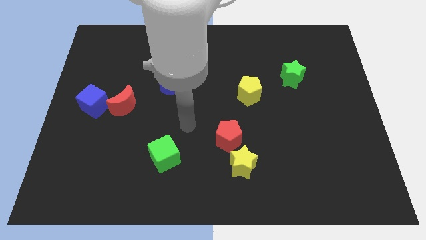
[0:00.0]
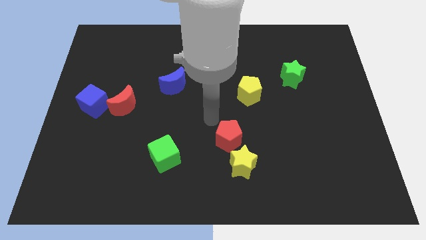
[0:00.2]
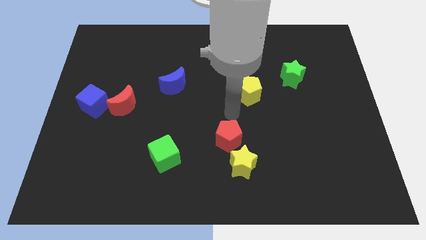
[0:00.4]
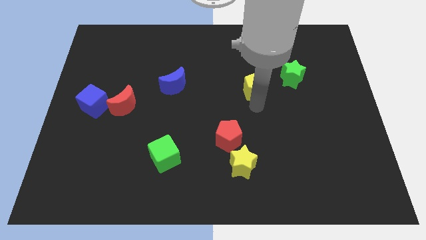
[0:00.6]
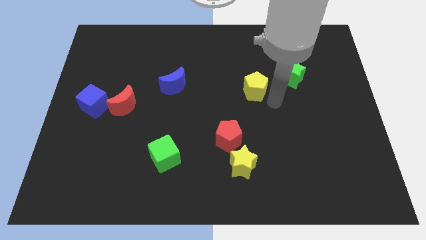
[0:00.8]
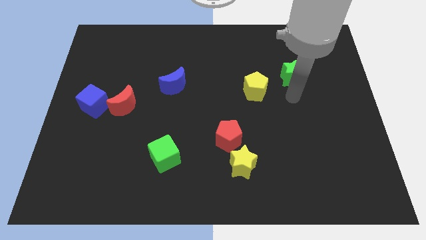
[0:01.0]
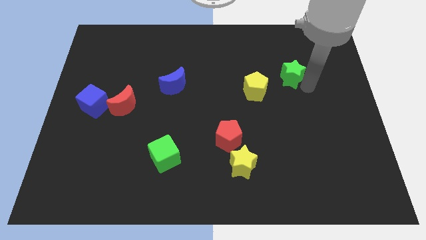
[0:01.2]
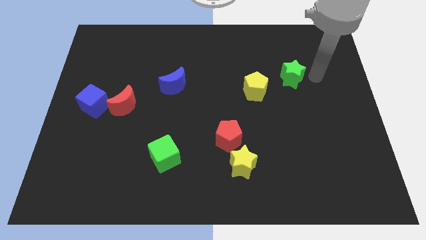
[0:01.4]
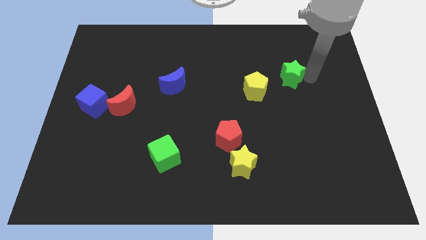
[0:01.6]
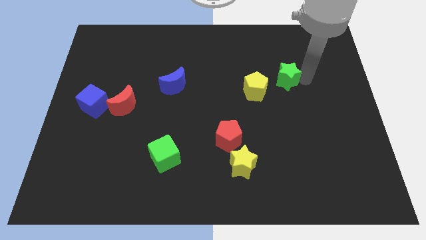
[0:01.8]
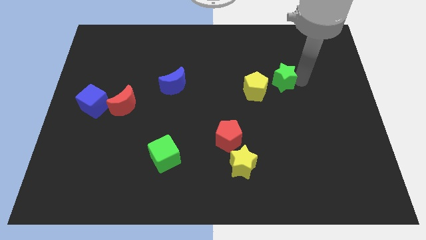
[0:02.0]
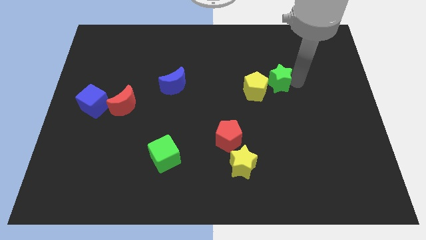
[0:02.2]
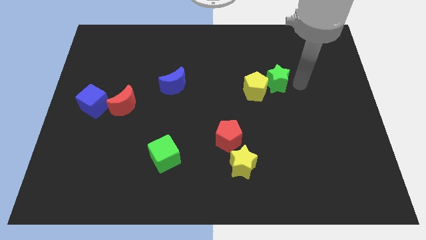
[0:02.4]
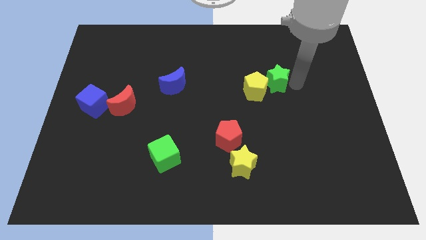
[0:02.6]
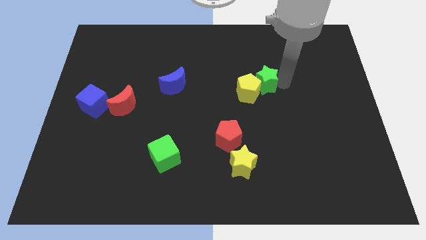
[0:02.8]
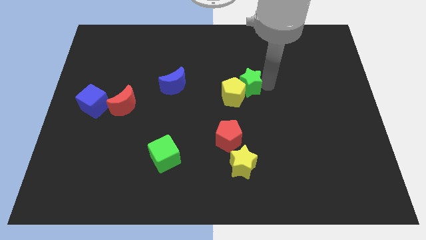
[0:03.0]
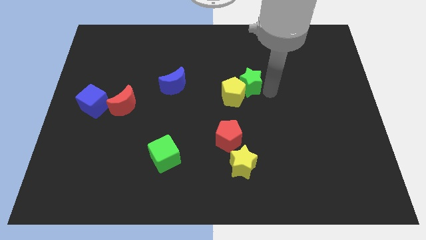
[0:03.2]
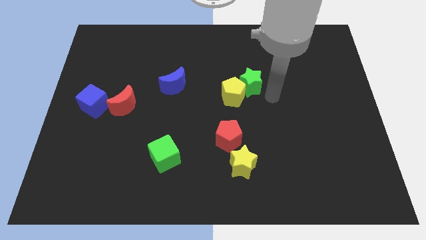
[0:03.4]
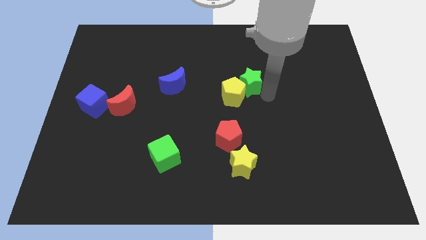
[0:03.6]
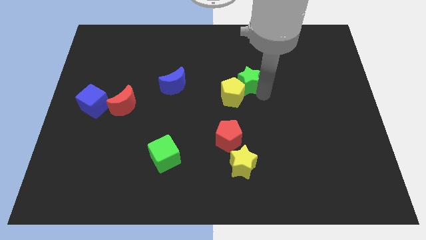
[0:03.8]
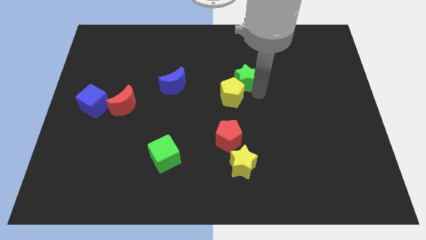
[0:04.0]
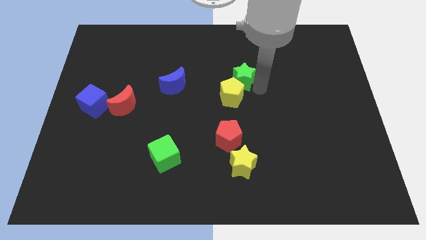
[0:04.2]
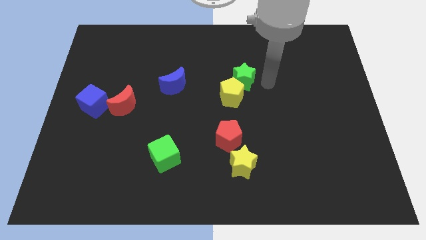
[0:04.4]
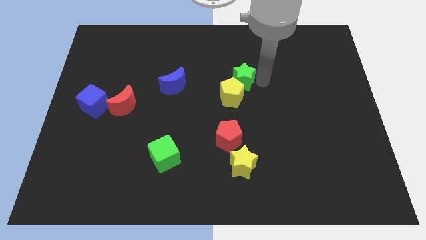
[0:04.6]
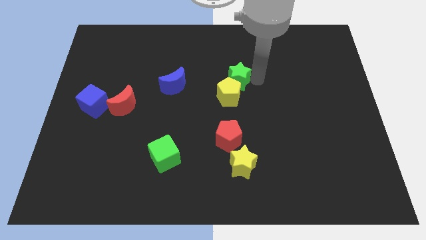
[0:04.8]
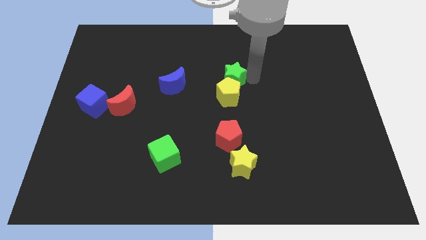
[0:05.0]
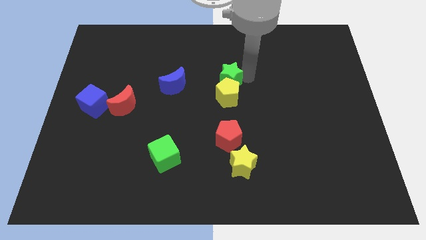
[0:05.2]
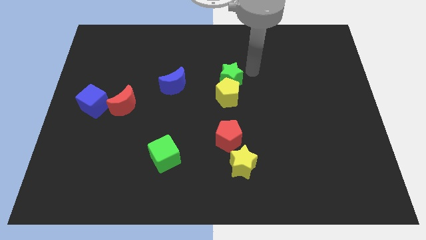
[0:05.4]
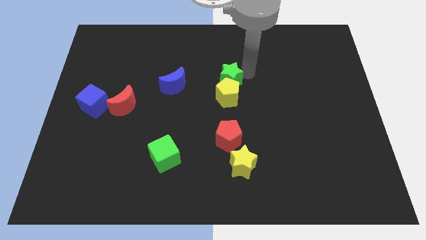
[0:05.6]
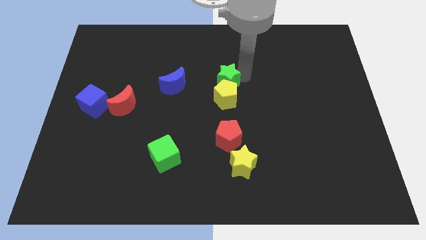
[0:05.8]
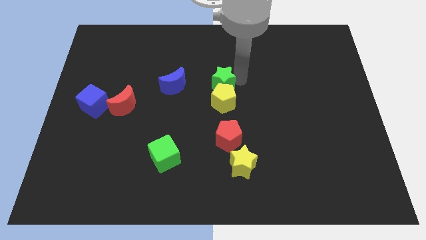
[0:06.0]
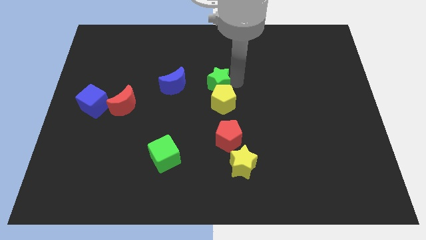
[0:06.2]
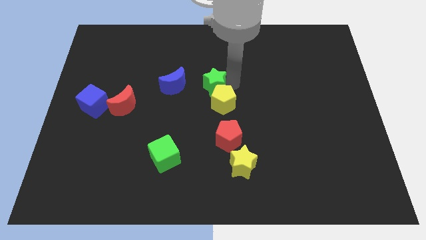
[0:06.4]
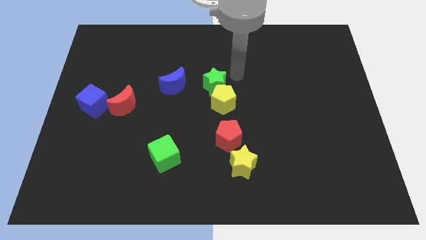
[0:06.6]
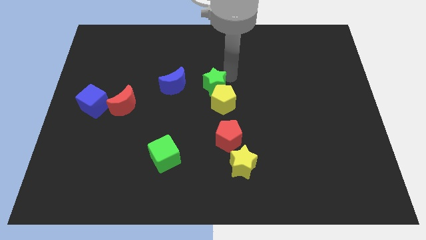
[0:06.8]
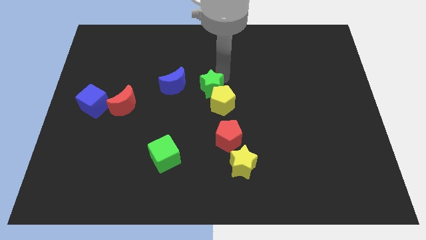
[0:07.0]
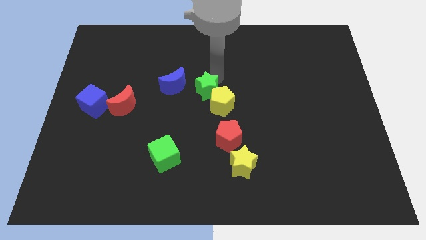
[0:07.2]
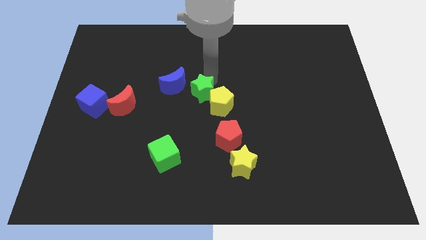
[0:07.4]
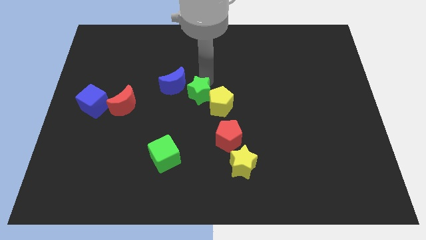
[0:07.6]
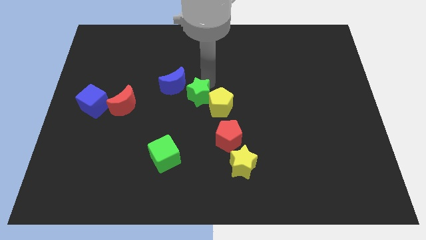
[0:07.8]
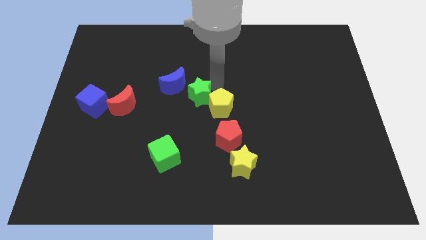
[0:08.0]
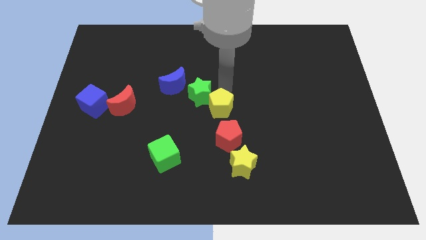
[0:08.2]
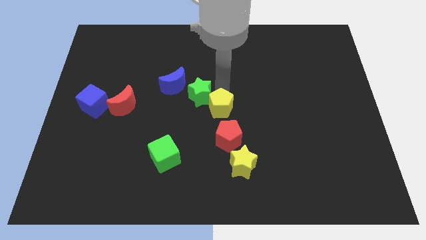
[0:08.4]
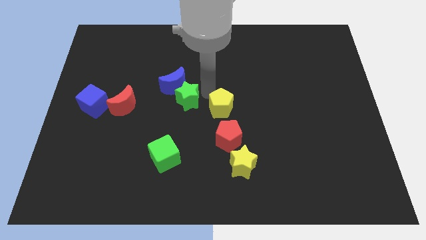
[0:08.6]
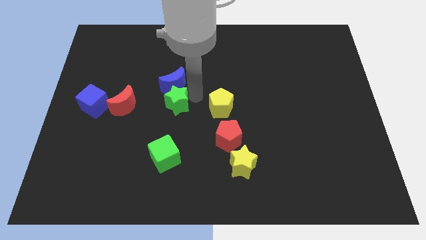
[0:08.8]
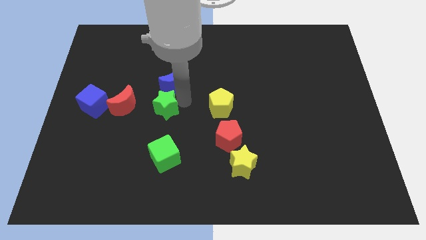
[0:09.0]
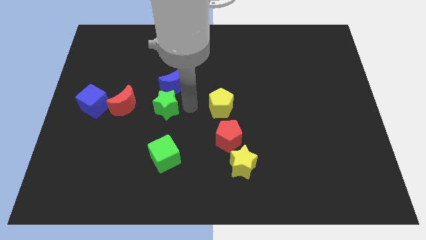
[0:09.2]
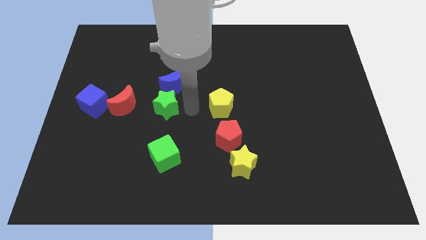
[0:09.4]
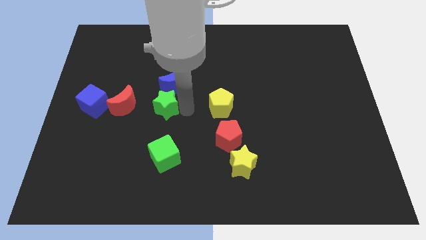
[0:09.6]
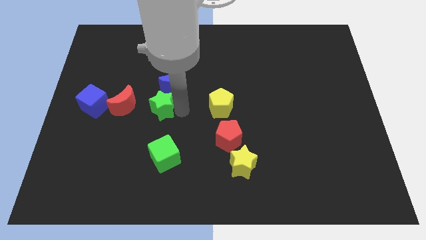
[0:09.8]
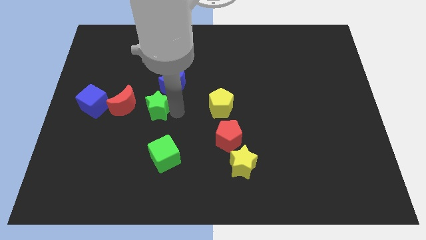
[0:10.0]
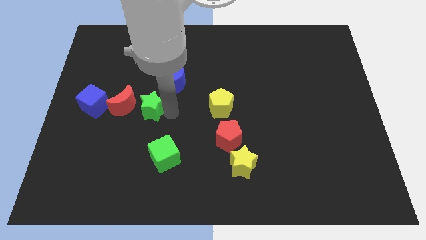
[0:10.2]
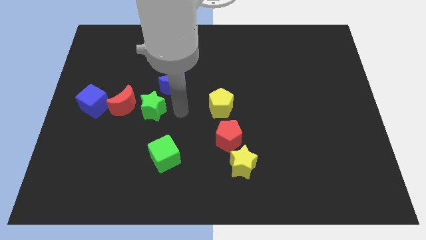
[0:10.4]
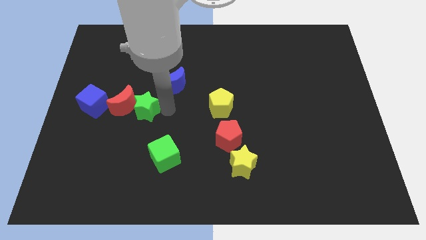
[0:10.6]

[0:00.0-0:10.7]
slide the green star close to the red moon

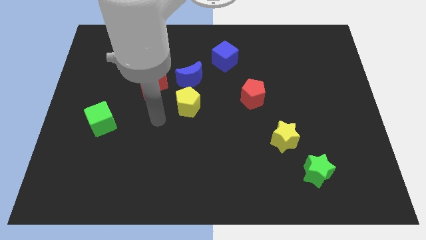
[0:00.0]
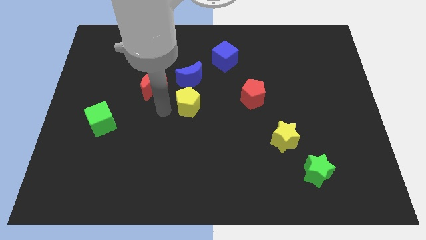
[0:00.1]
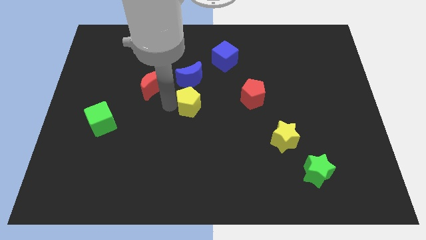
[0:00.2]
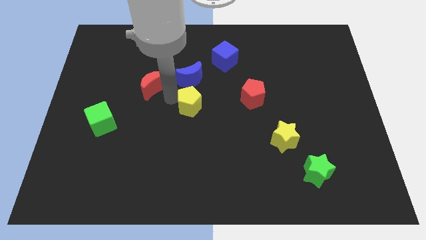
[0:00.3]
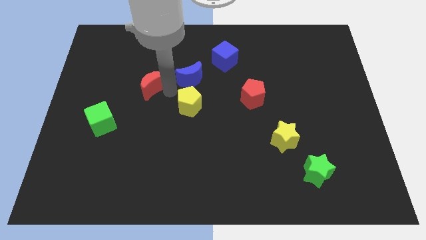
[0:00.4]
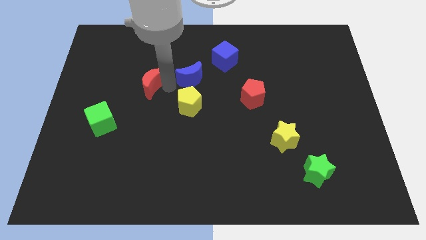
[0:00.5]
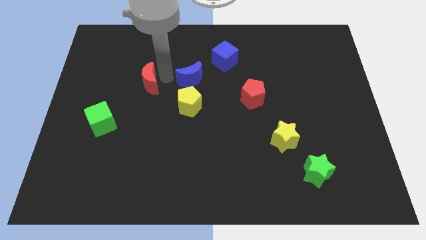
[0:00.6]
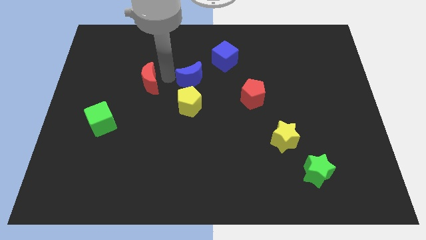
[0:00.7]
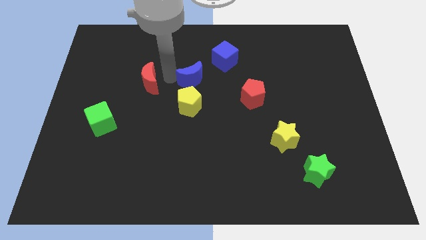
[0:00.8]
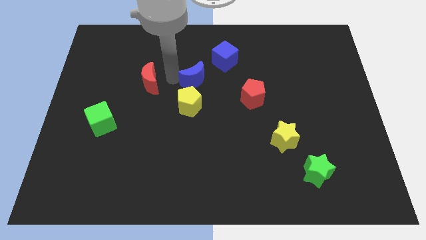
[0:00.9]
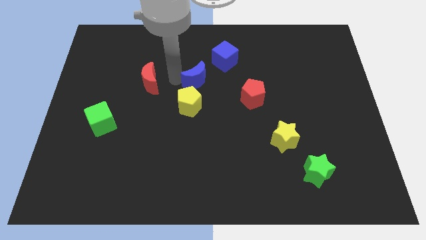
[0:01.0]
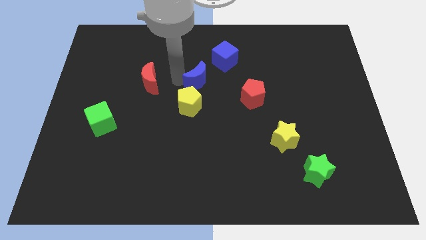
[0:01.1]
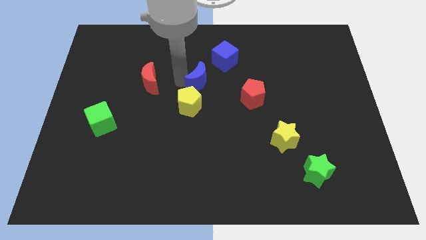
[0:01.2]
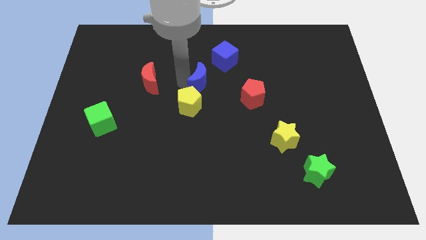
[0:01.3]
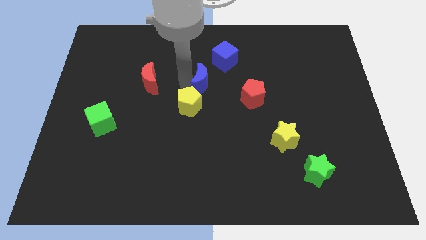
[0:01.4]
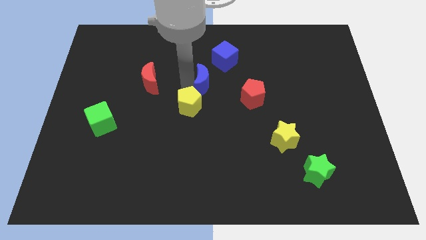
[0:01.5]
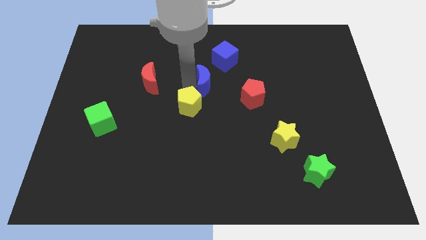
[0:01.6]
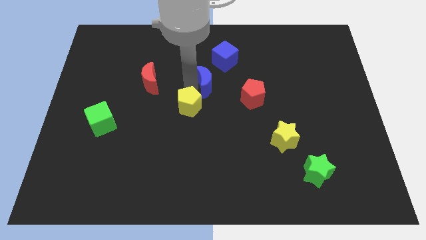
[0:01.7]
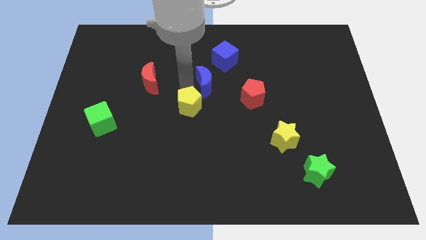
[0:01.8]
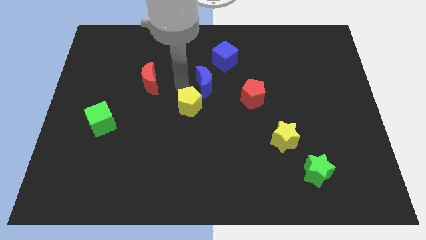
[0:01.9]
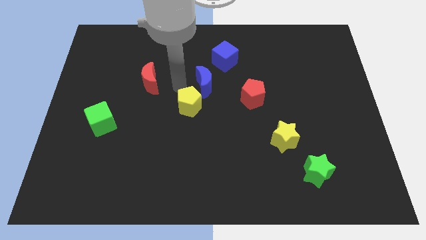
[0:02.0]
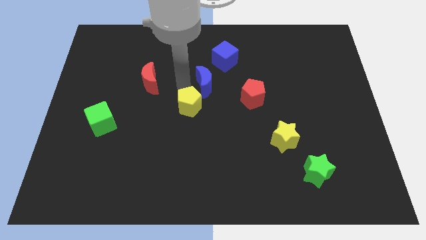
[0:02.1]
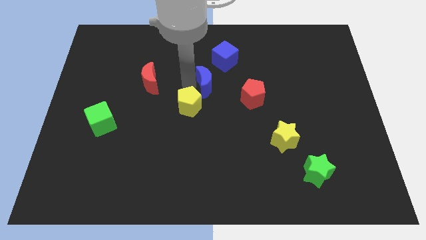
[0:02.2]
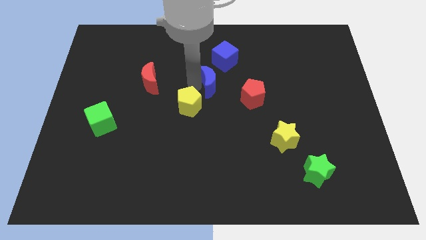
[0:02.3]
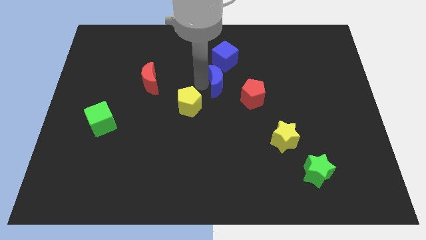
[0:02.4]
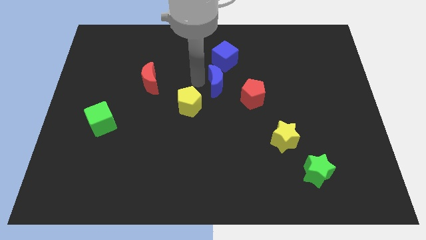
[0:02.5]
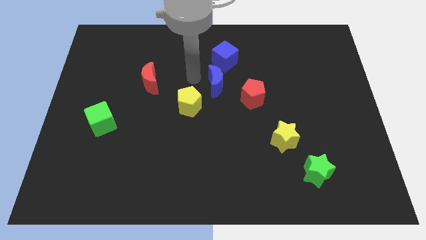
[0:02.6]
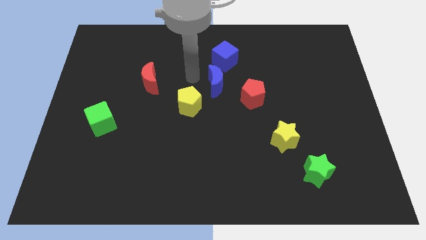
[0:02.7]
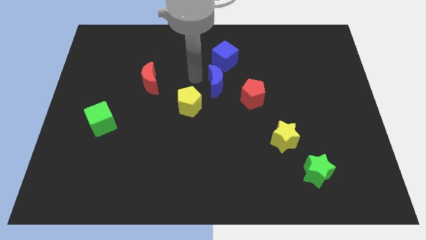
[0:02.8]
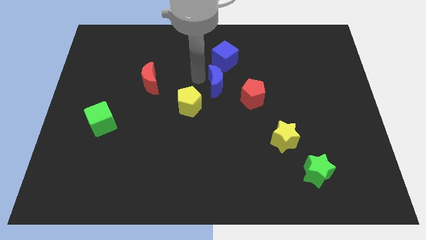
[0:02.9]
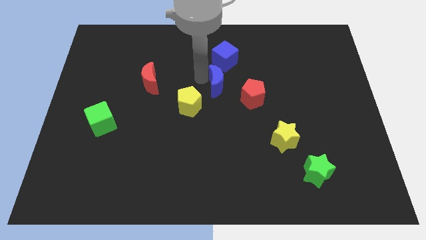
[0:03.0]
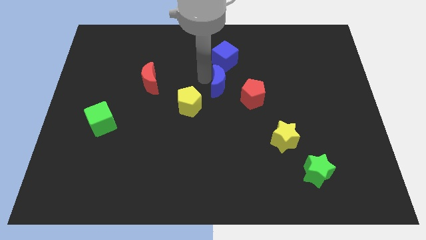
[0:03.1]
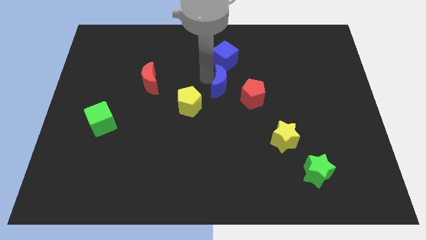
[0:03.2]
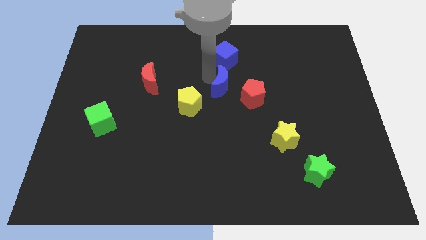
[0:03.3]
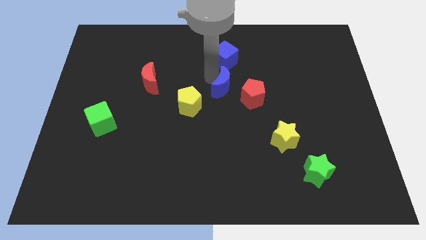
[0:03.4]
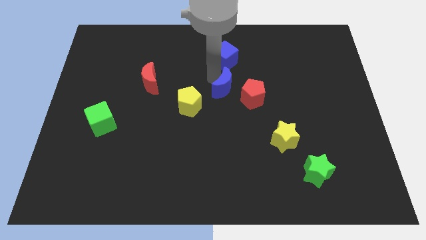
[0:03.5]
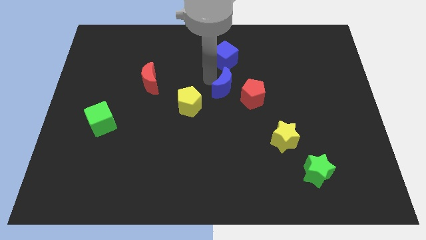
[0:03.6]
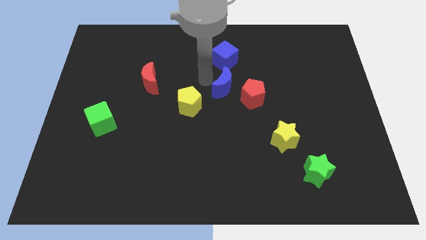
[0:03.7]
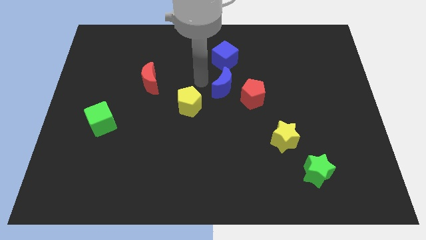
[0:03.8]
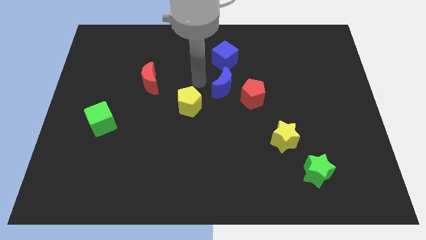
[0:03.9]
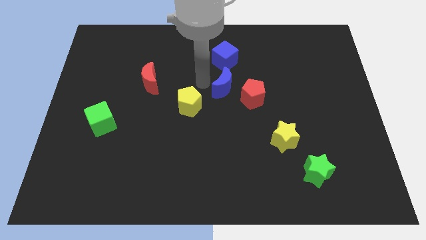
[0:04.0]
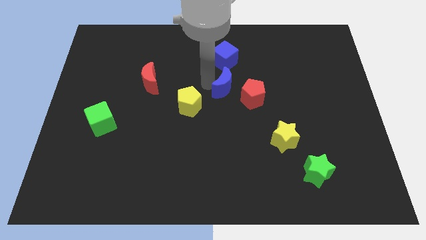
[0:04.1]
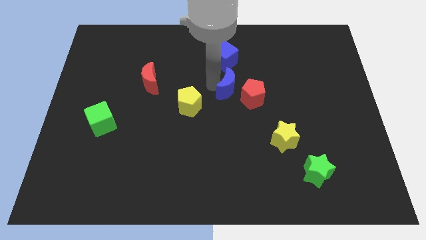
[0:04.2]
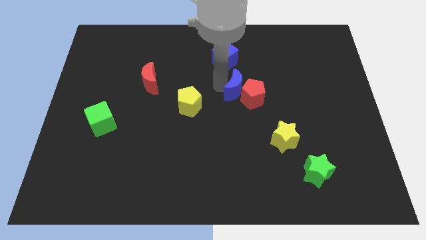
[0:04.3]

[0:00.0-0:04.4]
push the blue moon close to the red pentagon
